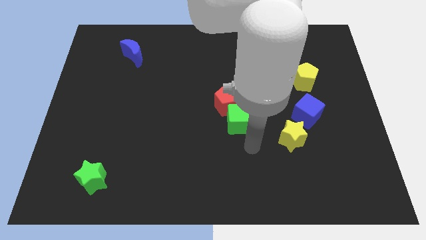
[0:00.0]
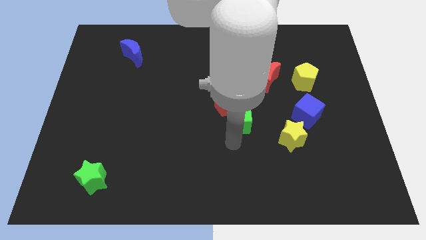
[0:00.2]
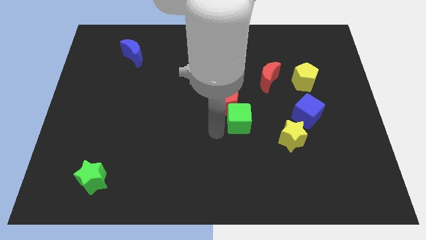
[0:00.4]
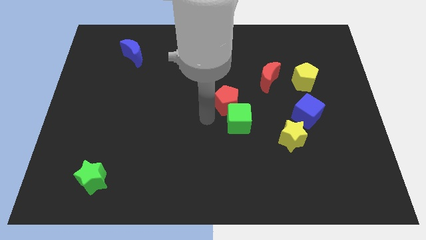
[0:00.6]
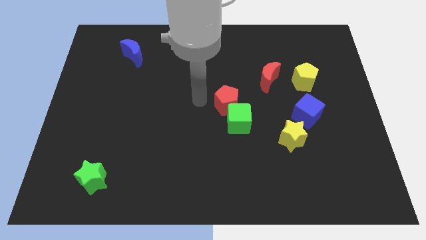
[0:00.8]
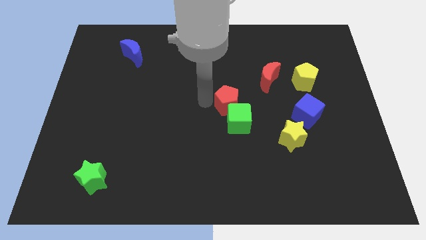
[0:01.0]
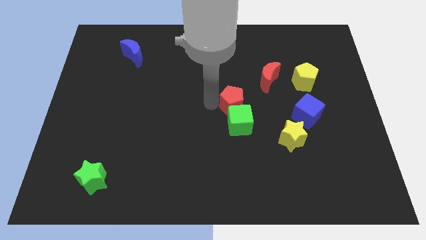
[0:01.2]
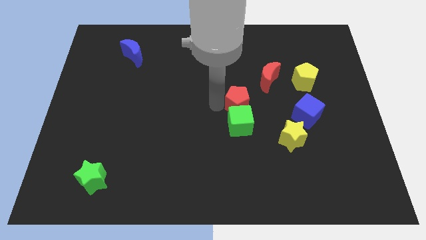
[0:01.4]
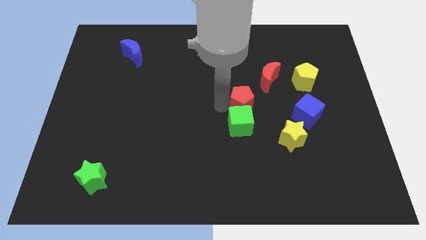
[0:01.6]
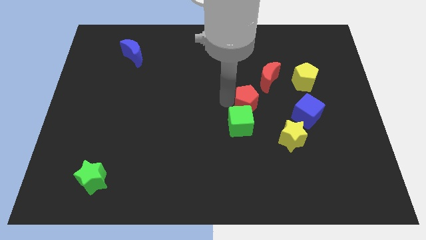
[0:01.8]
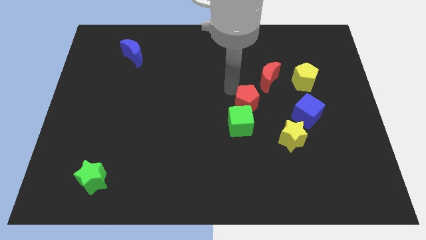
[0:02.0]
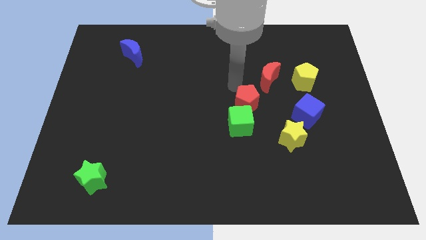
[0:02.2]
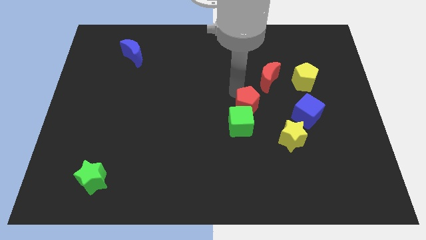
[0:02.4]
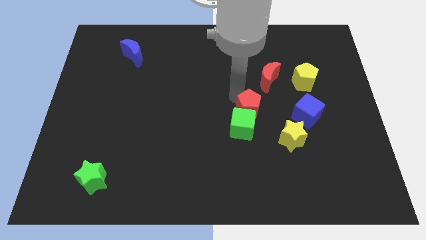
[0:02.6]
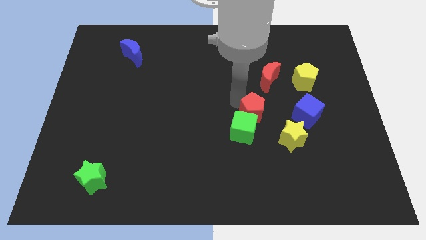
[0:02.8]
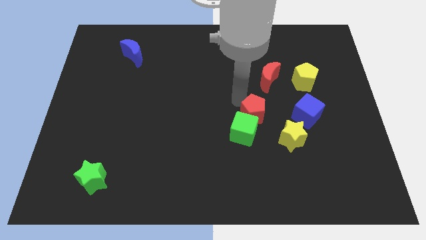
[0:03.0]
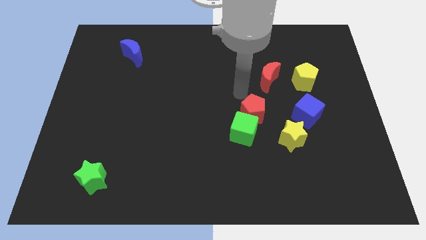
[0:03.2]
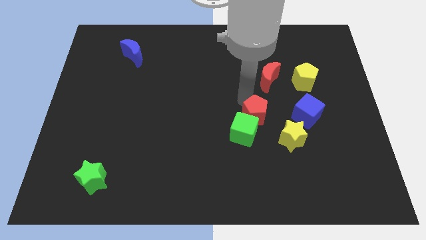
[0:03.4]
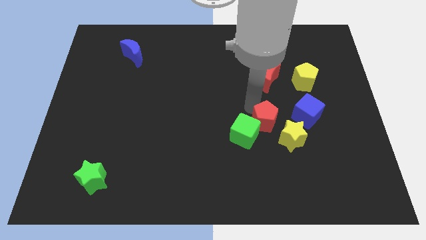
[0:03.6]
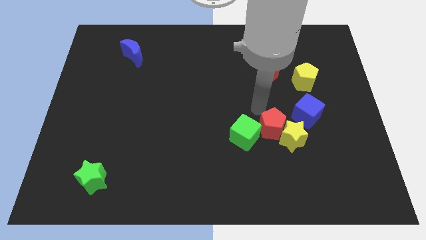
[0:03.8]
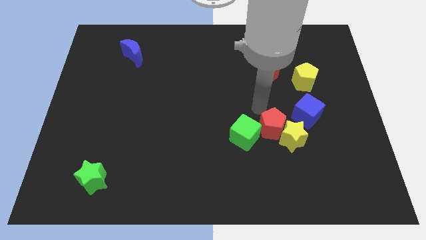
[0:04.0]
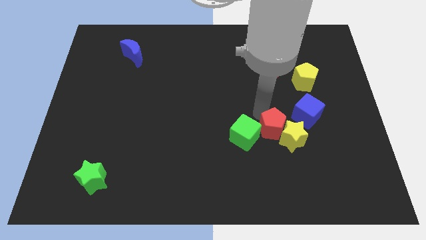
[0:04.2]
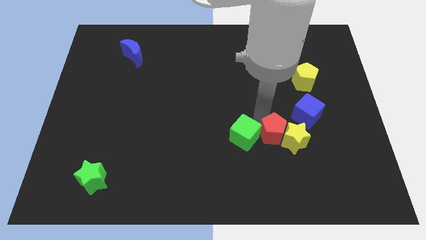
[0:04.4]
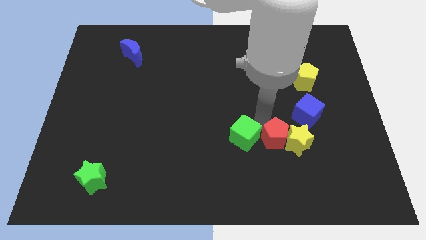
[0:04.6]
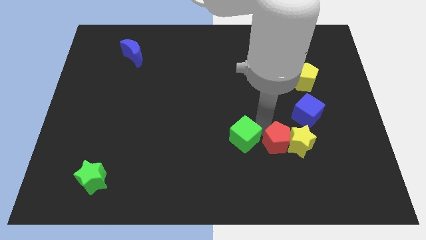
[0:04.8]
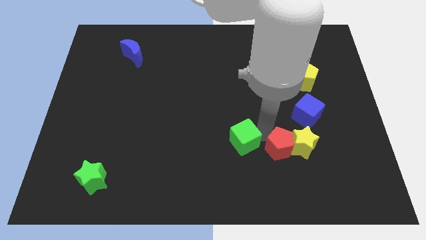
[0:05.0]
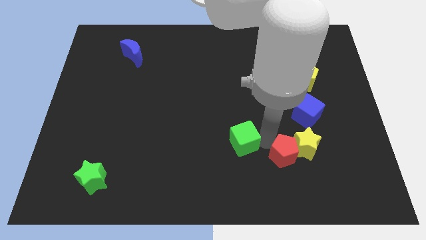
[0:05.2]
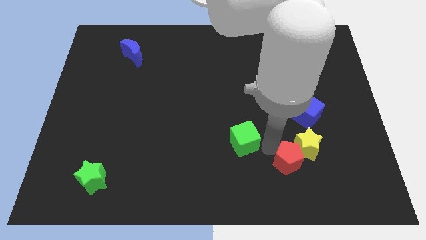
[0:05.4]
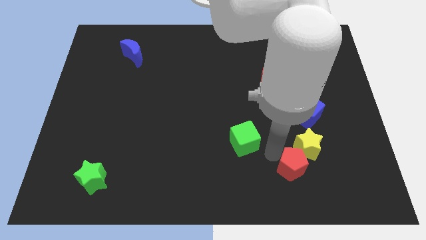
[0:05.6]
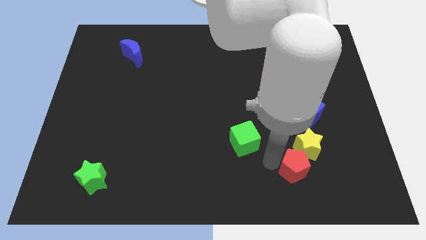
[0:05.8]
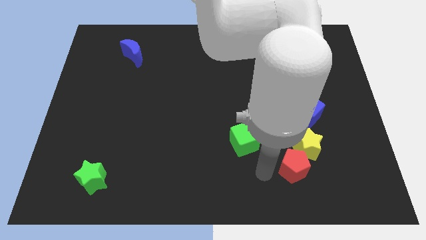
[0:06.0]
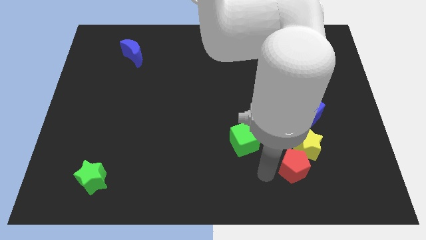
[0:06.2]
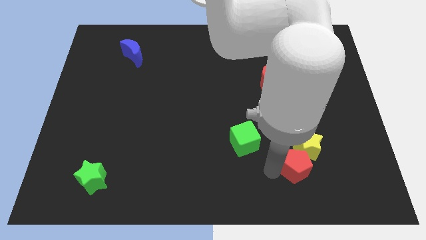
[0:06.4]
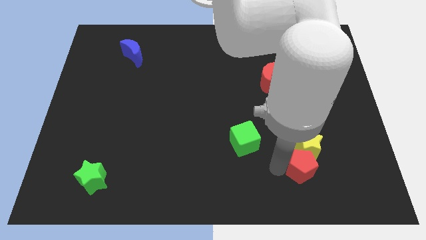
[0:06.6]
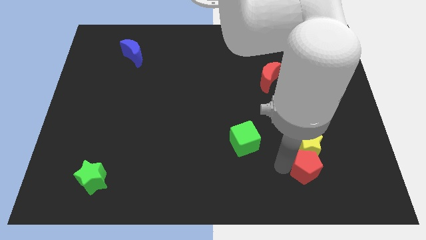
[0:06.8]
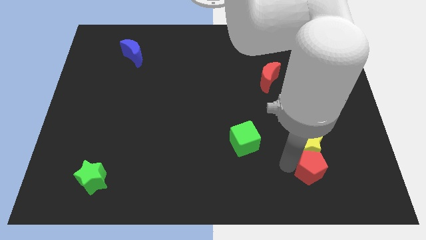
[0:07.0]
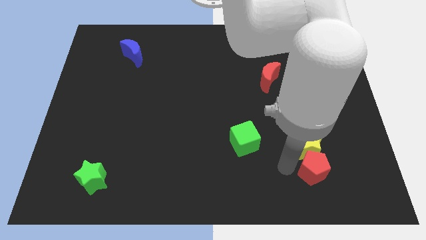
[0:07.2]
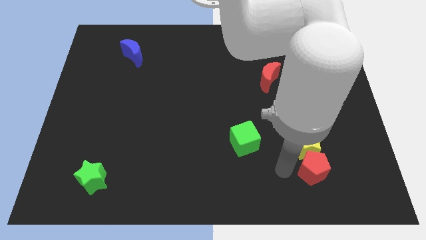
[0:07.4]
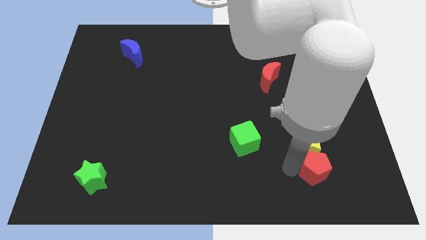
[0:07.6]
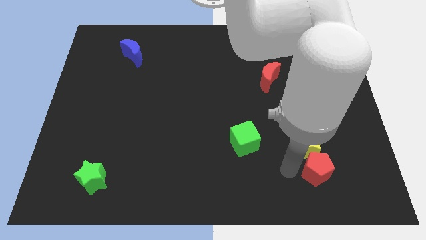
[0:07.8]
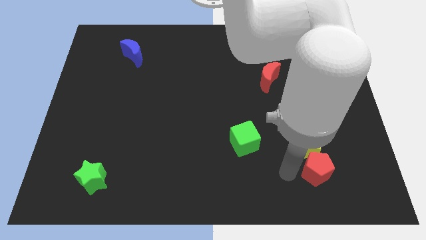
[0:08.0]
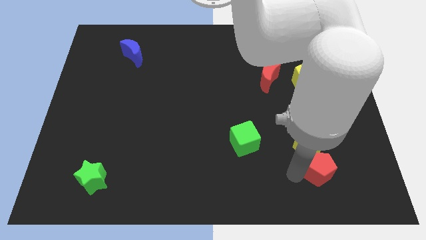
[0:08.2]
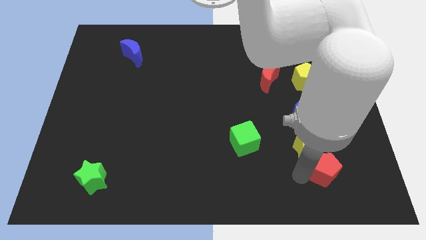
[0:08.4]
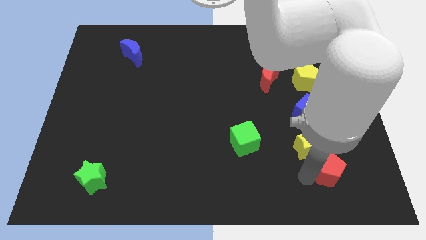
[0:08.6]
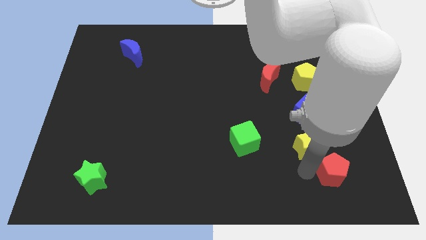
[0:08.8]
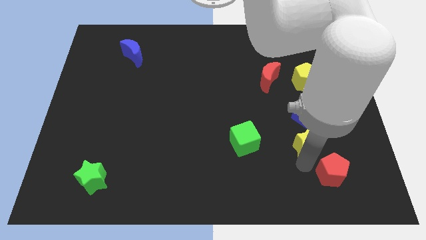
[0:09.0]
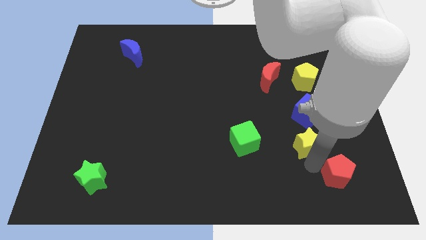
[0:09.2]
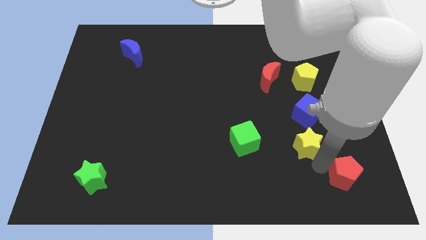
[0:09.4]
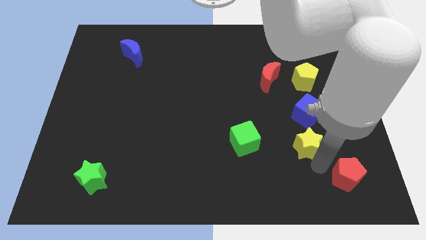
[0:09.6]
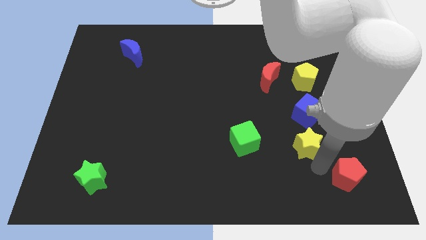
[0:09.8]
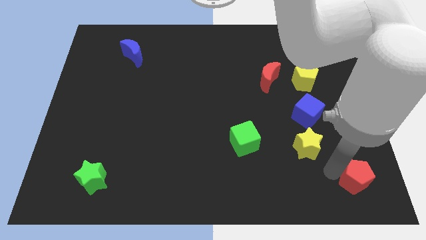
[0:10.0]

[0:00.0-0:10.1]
move the red pentagon to the lower right corner

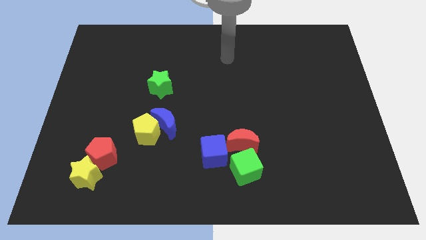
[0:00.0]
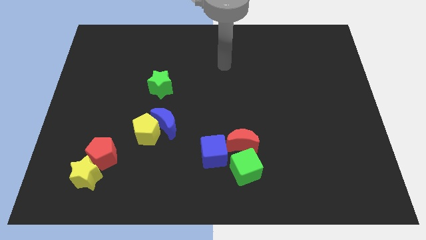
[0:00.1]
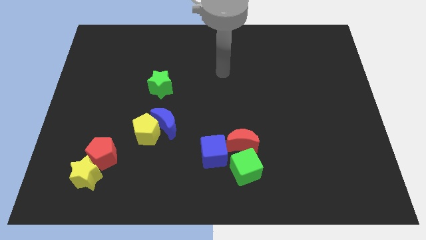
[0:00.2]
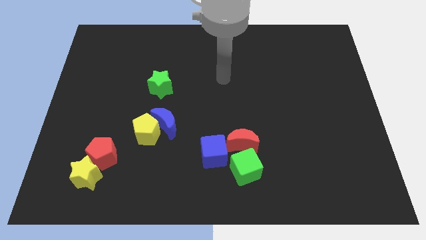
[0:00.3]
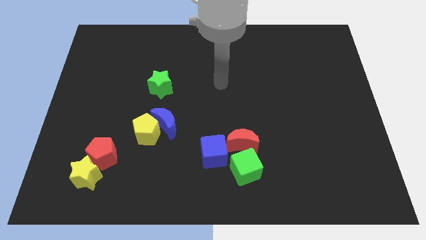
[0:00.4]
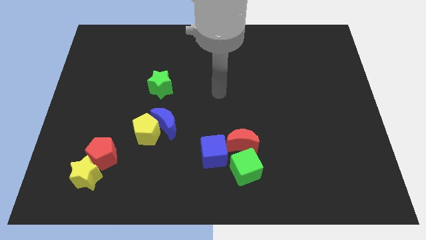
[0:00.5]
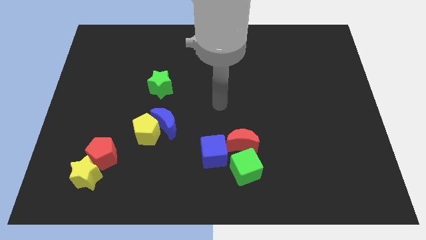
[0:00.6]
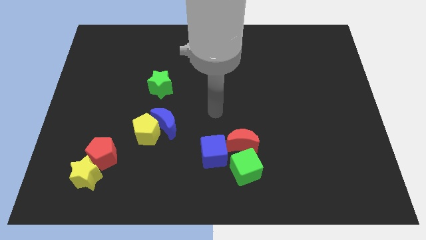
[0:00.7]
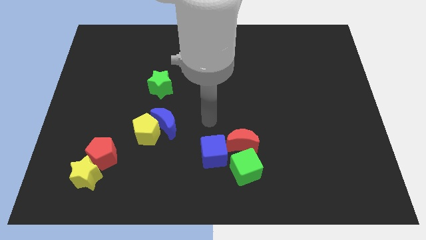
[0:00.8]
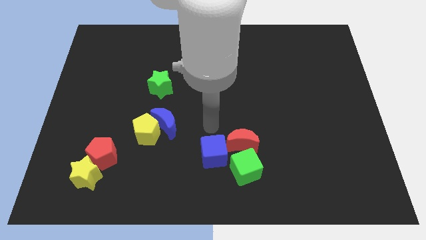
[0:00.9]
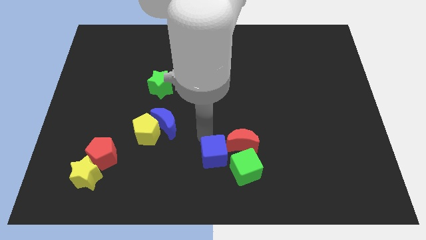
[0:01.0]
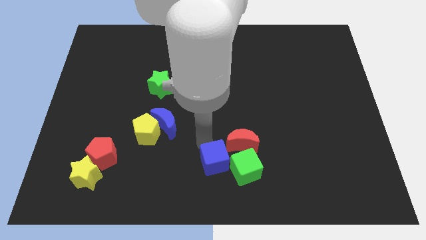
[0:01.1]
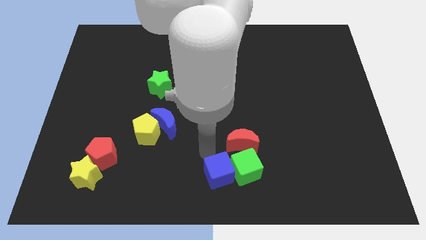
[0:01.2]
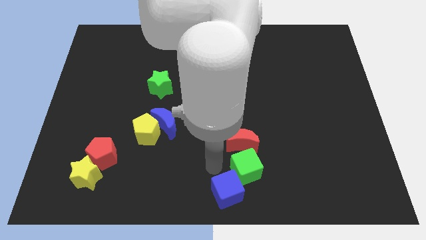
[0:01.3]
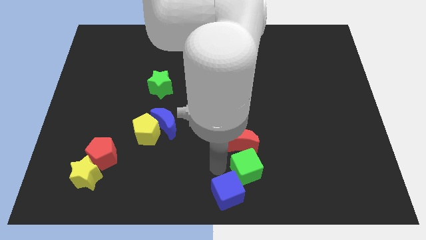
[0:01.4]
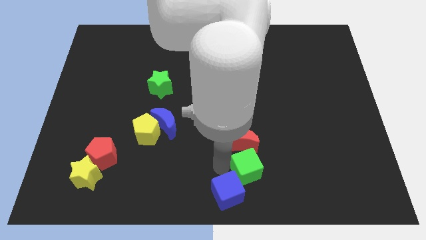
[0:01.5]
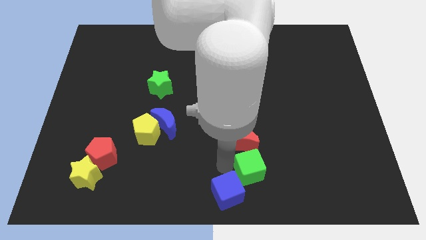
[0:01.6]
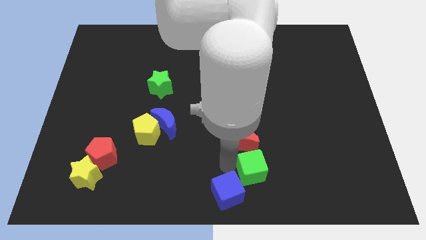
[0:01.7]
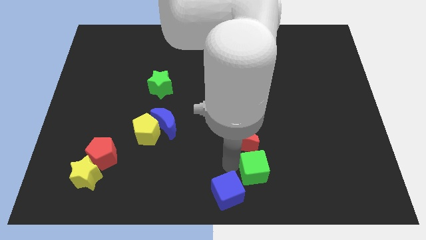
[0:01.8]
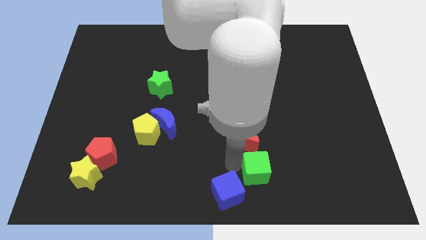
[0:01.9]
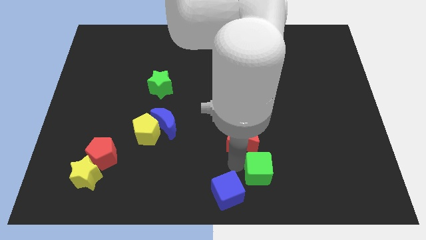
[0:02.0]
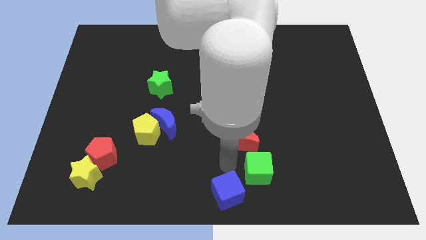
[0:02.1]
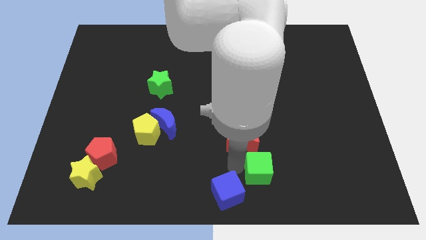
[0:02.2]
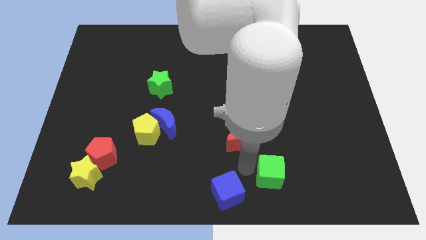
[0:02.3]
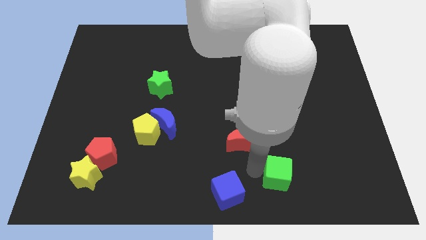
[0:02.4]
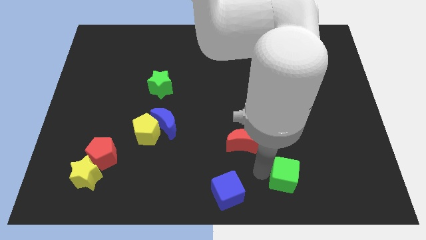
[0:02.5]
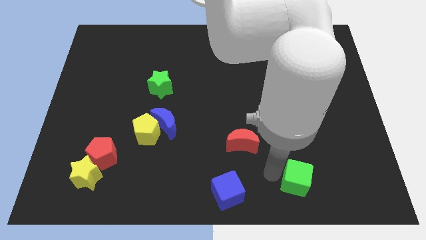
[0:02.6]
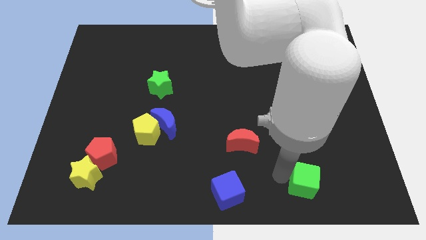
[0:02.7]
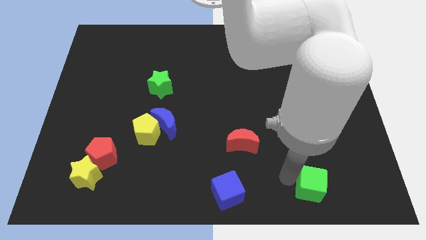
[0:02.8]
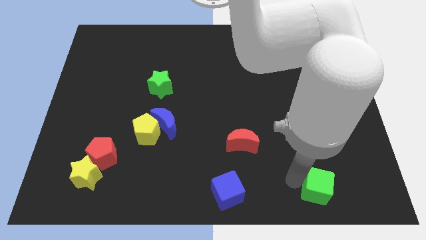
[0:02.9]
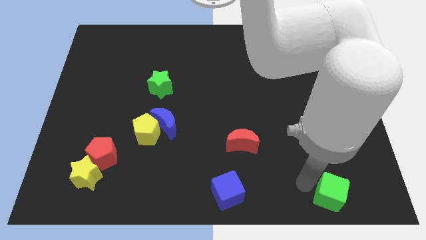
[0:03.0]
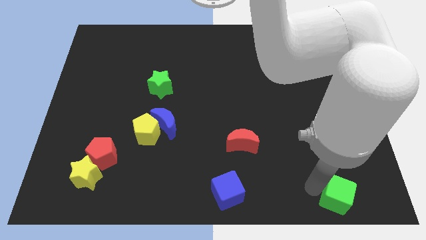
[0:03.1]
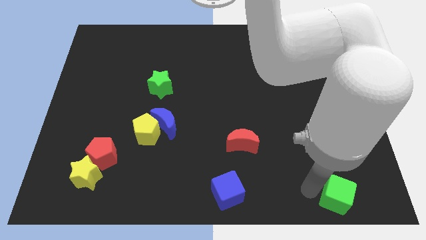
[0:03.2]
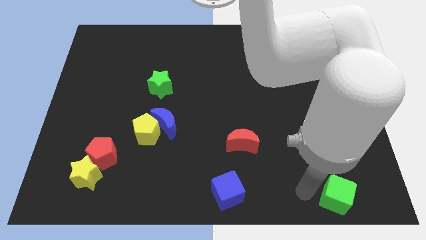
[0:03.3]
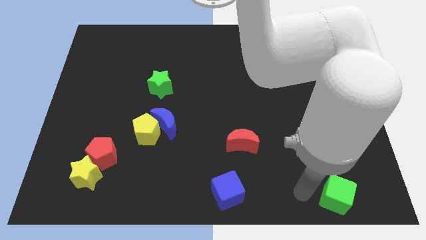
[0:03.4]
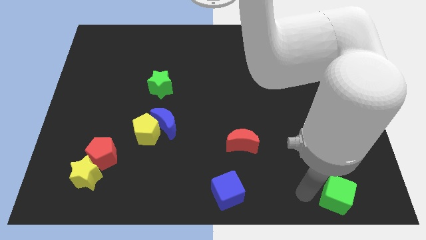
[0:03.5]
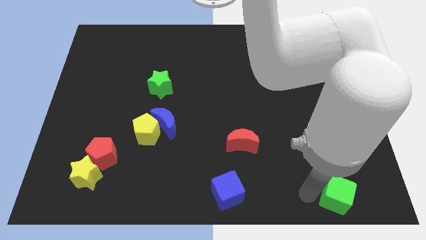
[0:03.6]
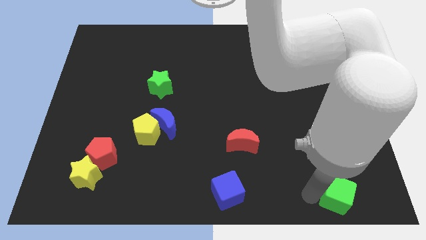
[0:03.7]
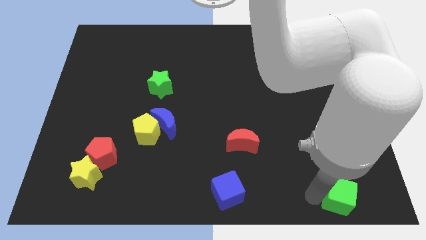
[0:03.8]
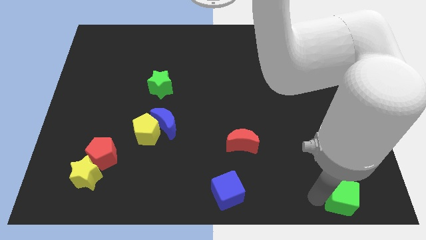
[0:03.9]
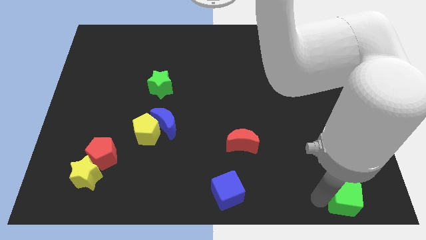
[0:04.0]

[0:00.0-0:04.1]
slide the green cube to the bottom right corner
